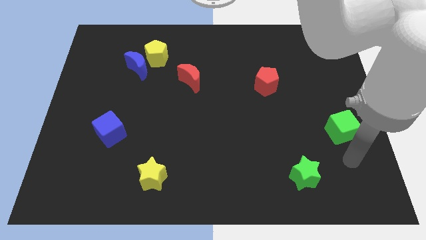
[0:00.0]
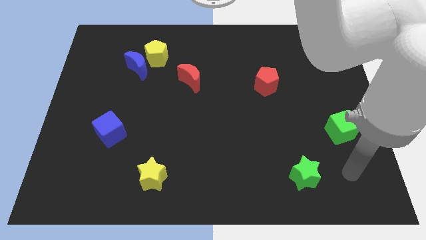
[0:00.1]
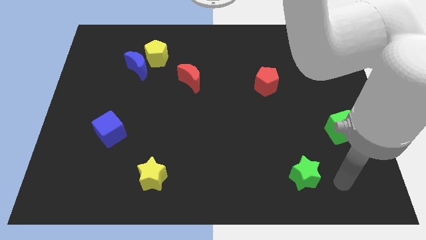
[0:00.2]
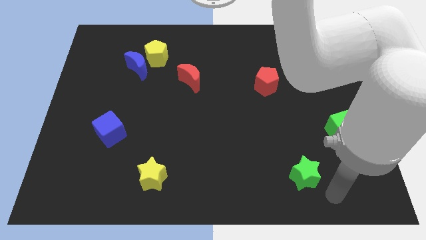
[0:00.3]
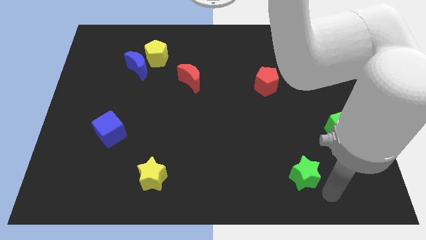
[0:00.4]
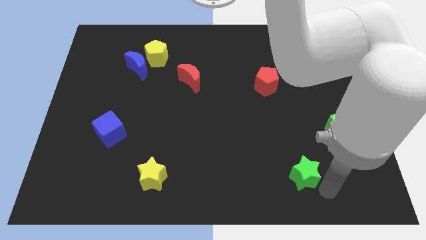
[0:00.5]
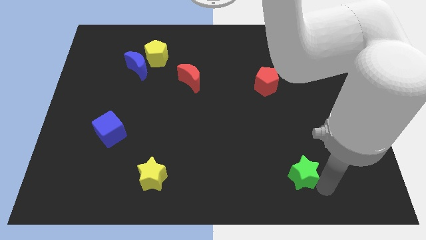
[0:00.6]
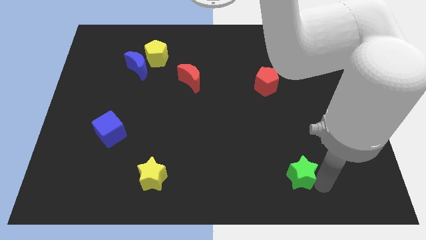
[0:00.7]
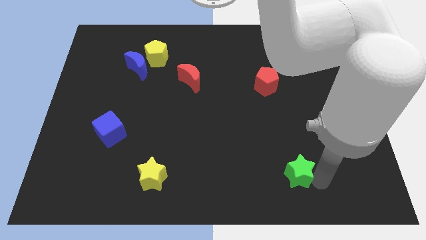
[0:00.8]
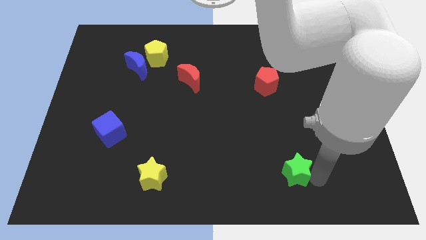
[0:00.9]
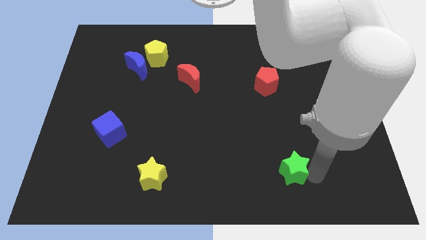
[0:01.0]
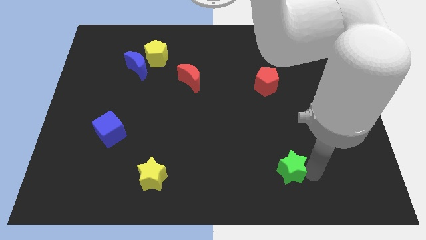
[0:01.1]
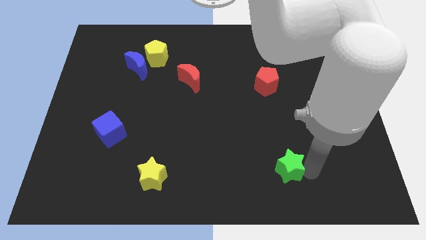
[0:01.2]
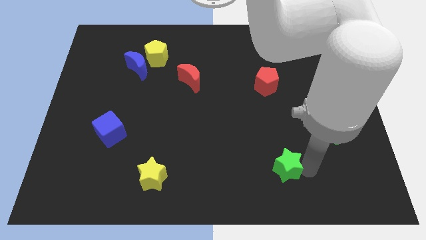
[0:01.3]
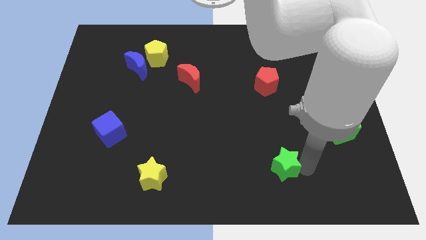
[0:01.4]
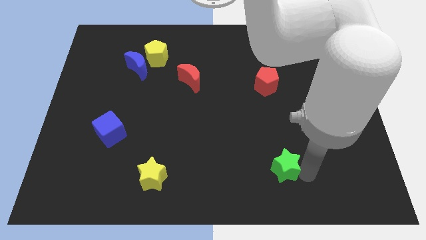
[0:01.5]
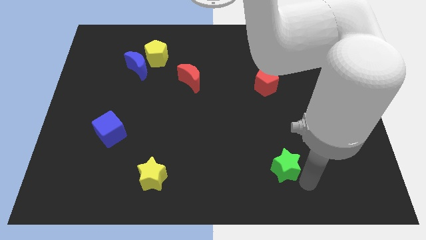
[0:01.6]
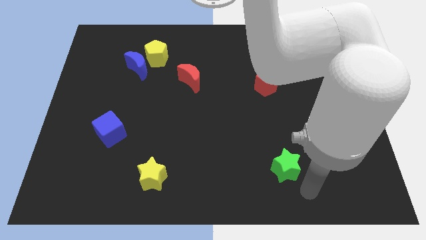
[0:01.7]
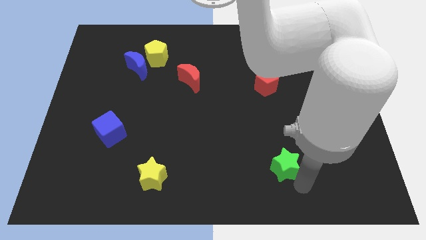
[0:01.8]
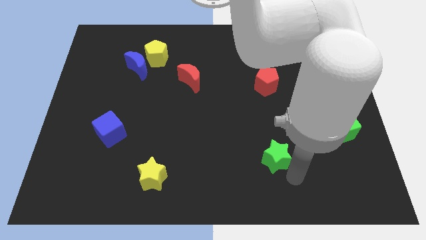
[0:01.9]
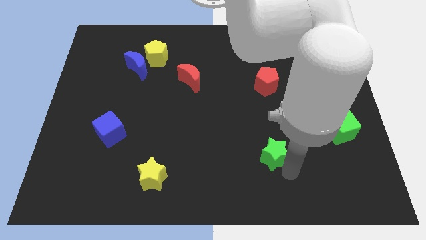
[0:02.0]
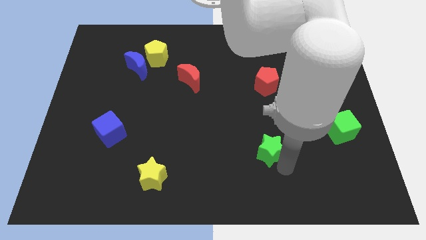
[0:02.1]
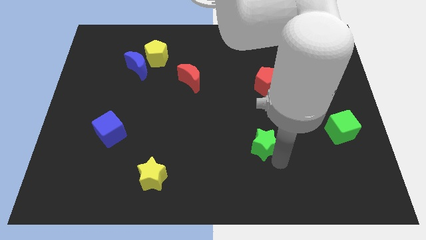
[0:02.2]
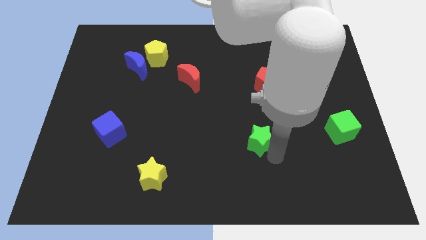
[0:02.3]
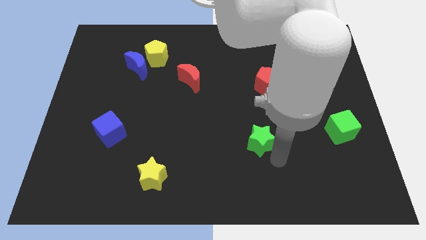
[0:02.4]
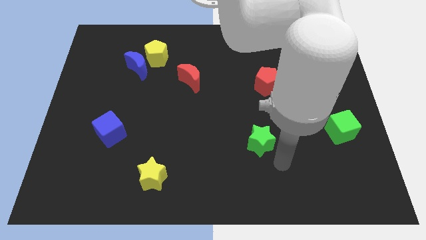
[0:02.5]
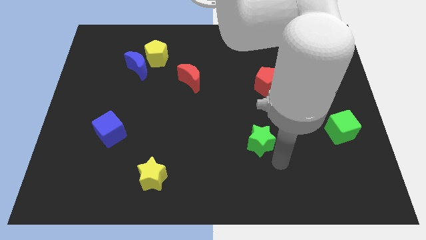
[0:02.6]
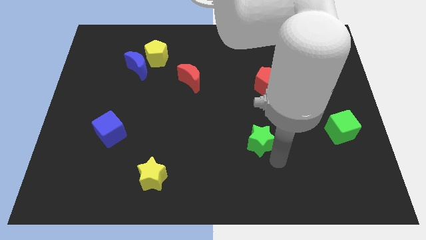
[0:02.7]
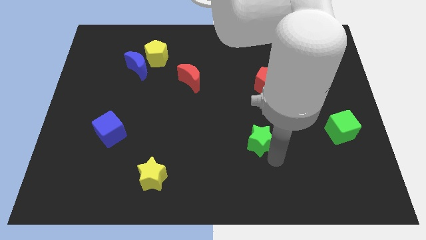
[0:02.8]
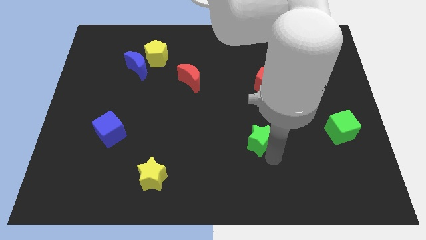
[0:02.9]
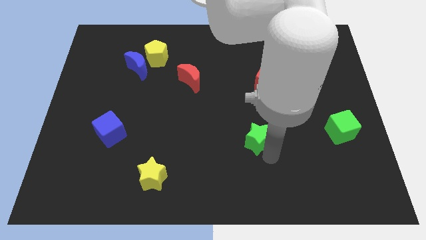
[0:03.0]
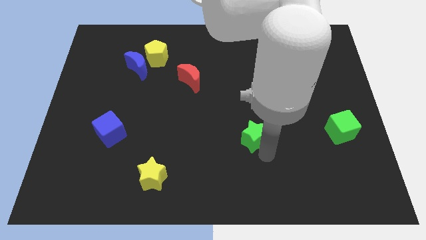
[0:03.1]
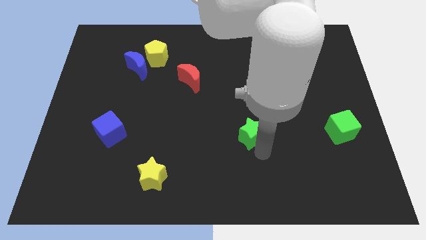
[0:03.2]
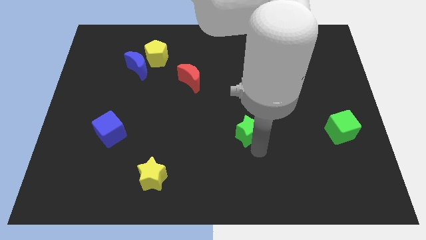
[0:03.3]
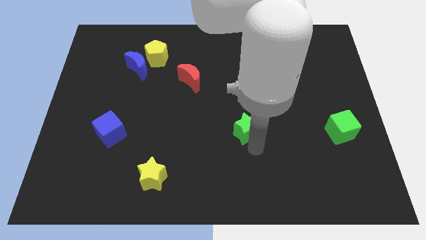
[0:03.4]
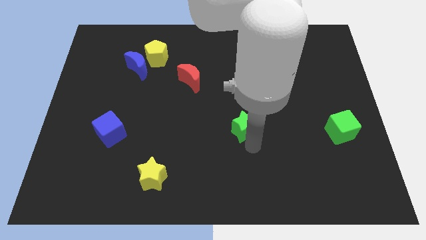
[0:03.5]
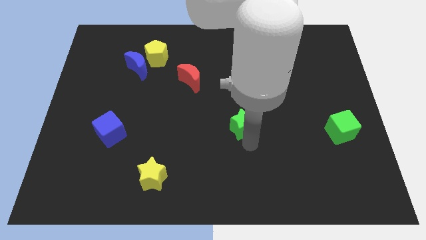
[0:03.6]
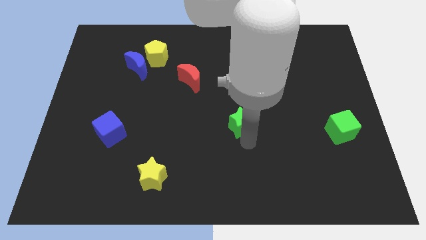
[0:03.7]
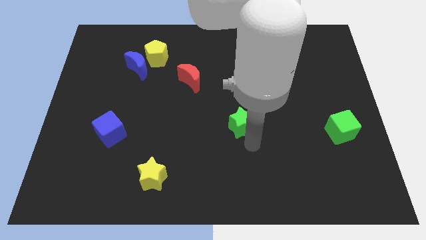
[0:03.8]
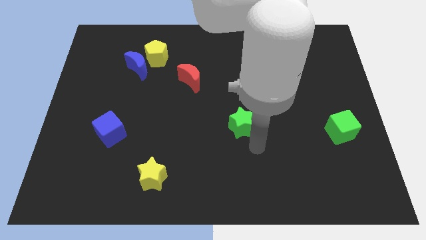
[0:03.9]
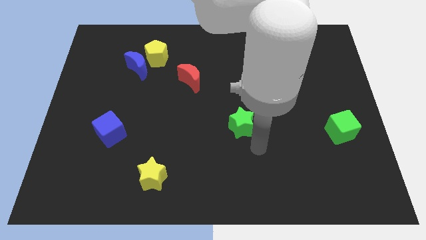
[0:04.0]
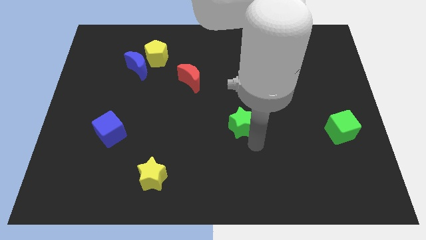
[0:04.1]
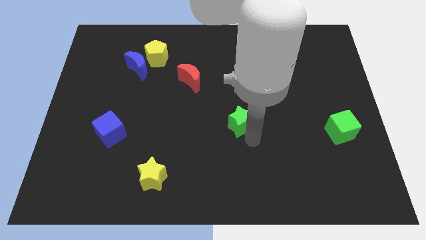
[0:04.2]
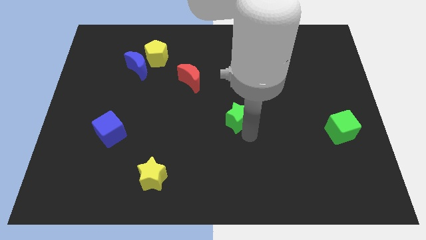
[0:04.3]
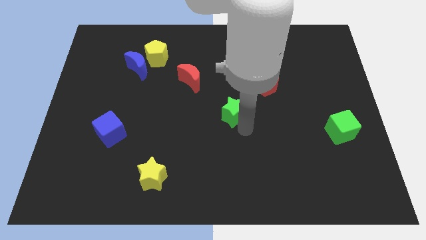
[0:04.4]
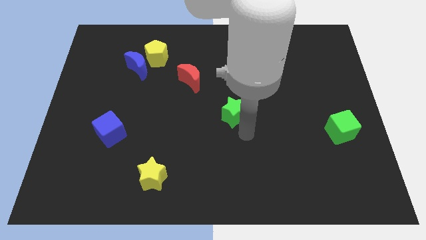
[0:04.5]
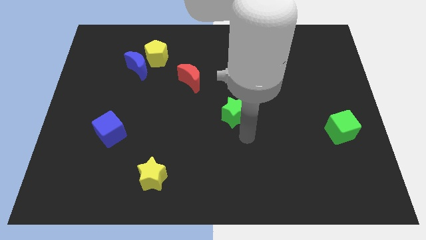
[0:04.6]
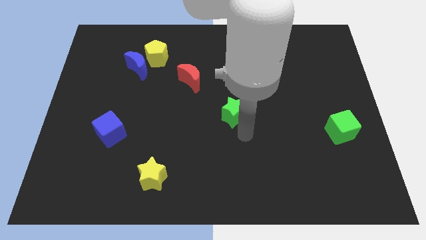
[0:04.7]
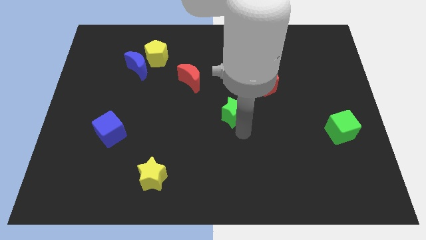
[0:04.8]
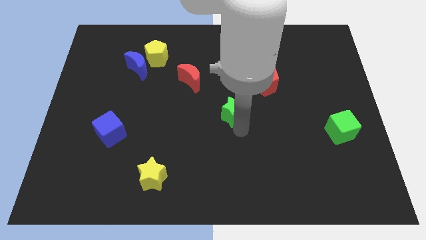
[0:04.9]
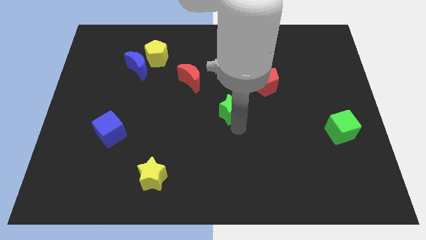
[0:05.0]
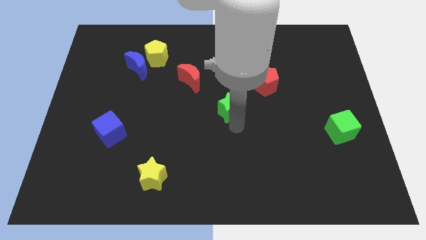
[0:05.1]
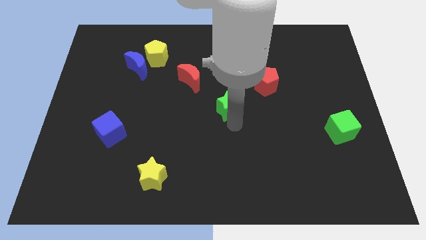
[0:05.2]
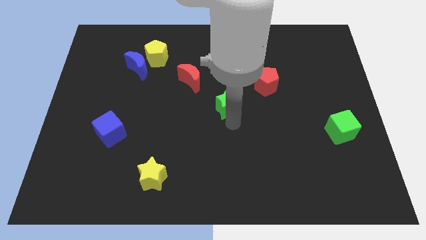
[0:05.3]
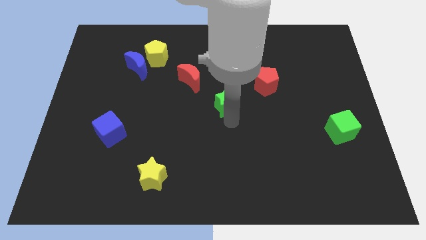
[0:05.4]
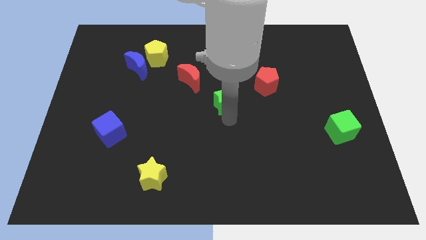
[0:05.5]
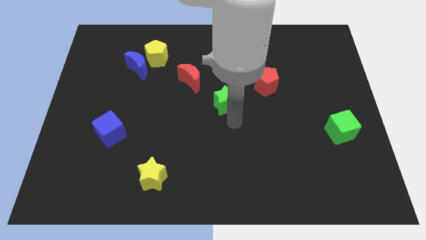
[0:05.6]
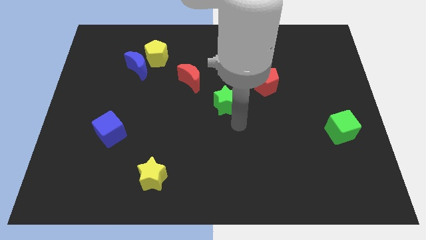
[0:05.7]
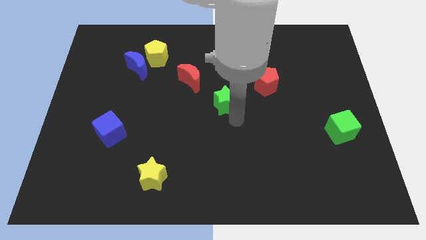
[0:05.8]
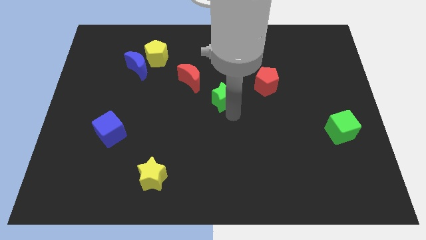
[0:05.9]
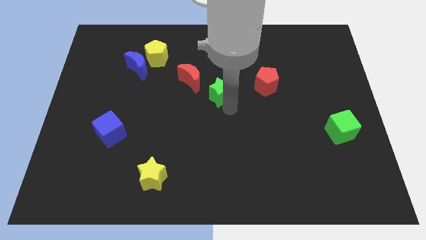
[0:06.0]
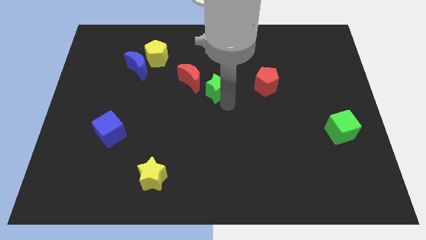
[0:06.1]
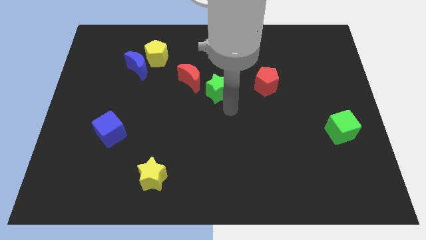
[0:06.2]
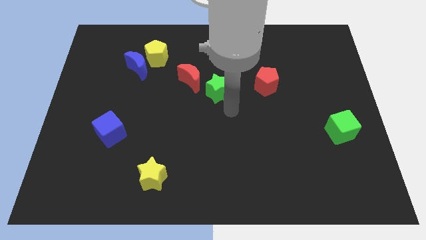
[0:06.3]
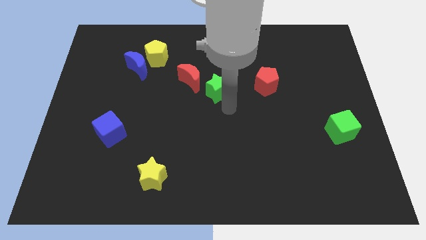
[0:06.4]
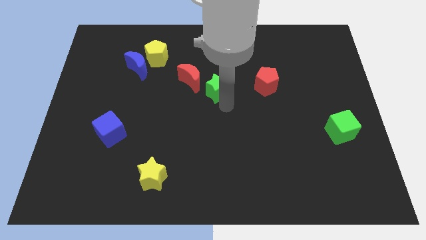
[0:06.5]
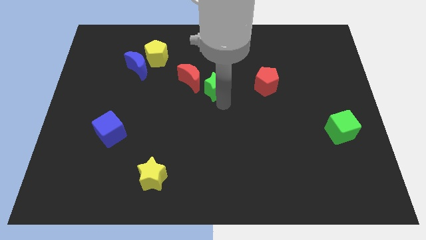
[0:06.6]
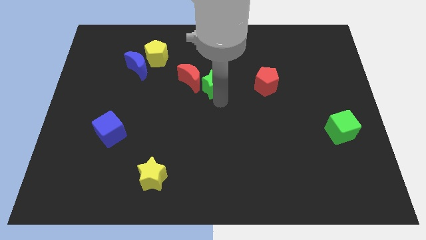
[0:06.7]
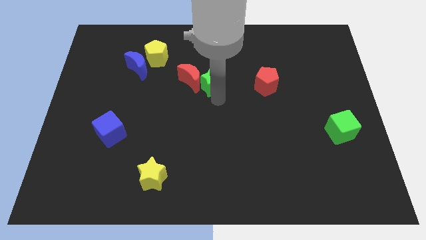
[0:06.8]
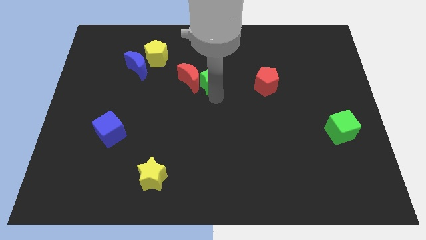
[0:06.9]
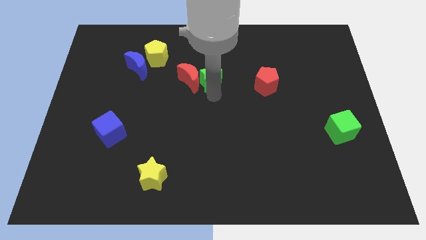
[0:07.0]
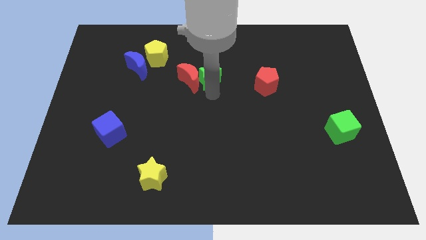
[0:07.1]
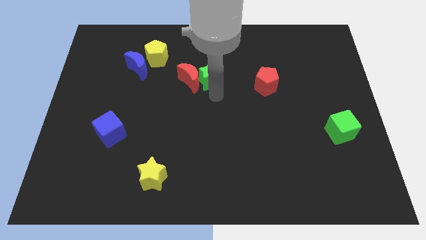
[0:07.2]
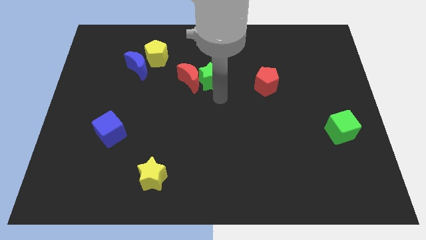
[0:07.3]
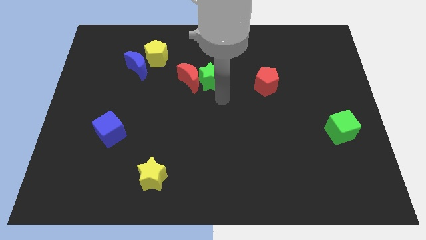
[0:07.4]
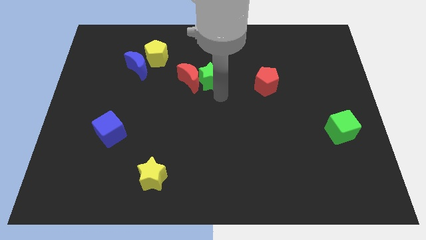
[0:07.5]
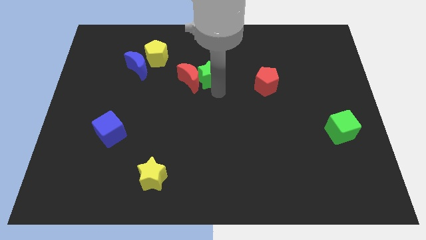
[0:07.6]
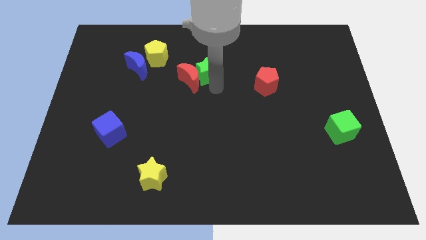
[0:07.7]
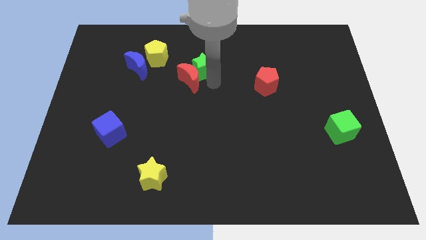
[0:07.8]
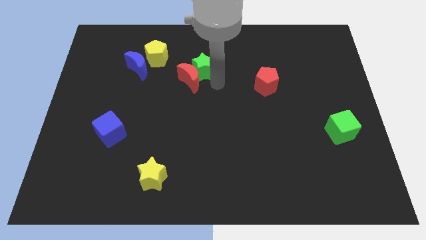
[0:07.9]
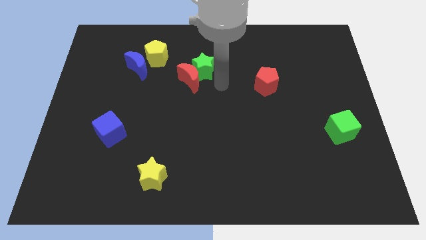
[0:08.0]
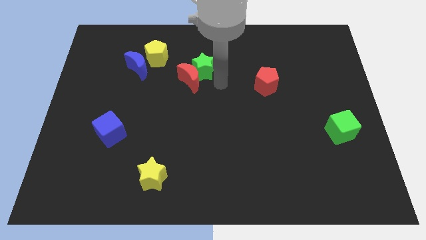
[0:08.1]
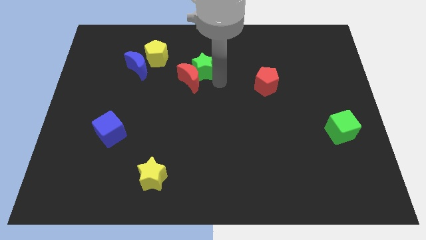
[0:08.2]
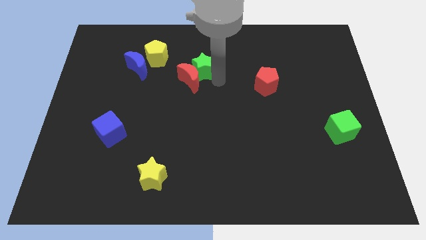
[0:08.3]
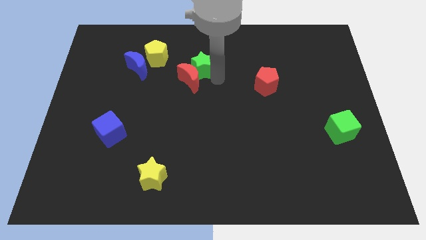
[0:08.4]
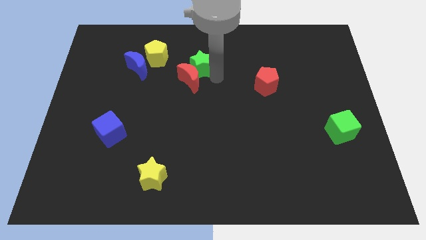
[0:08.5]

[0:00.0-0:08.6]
slide the green star just right of the blue moon
